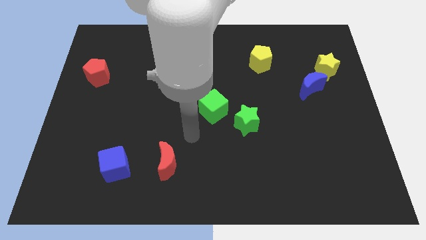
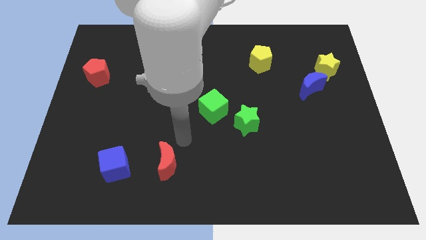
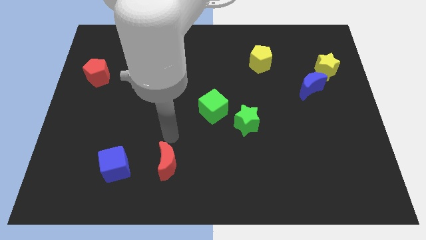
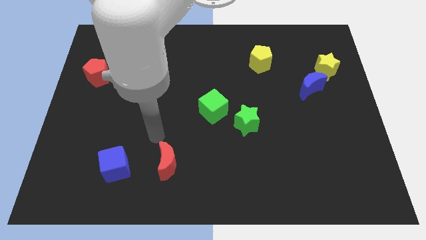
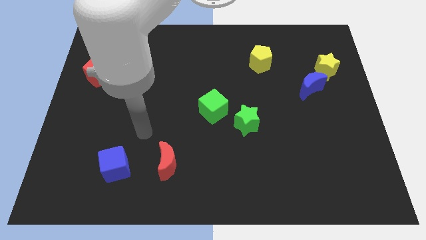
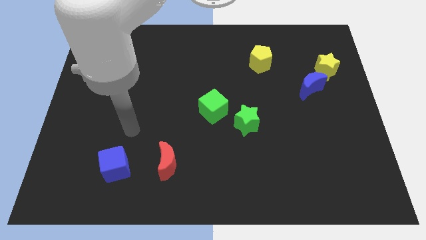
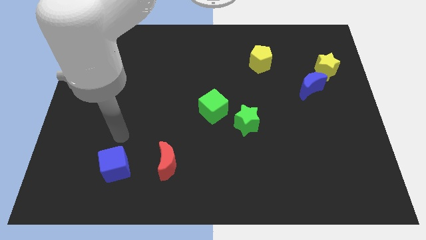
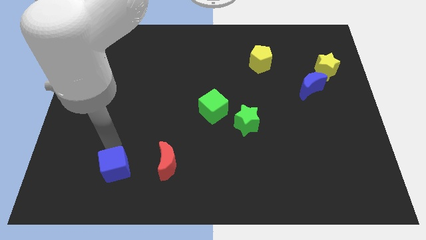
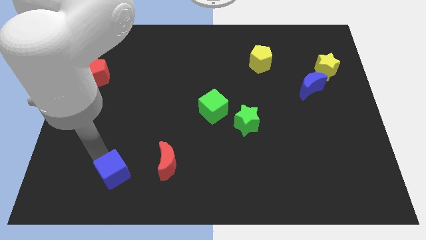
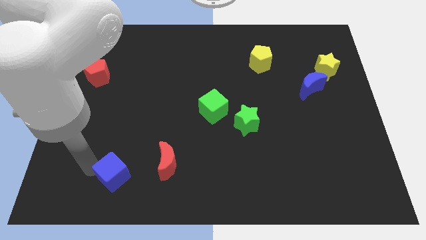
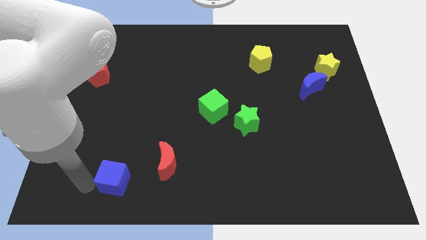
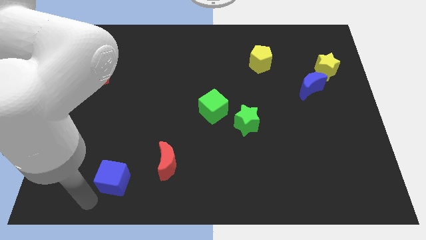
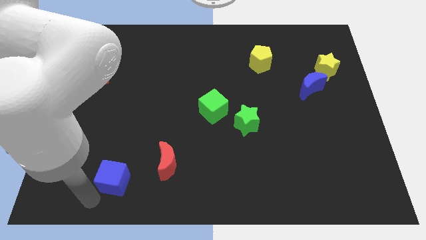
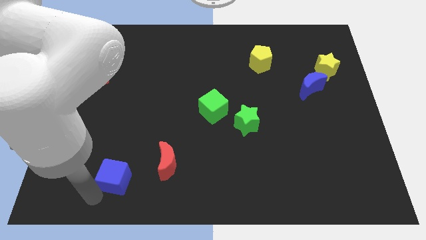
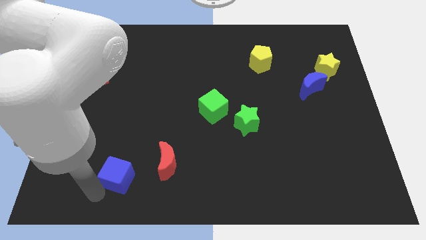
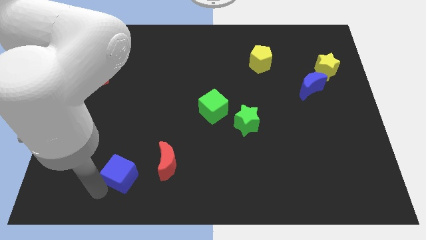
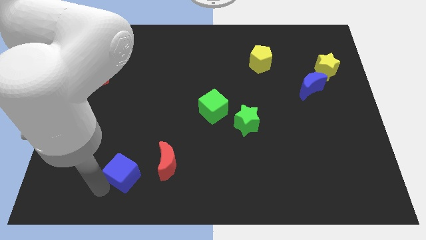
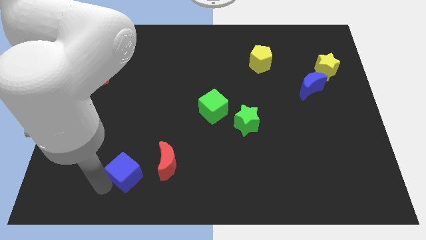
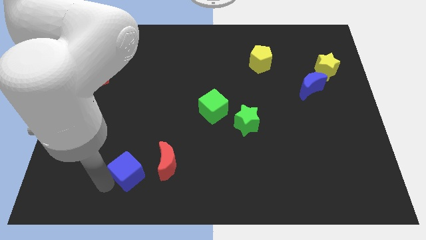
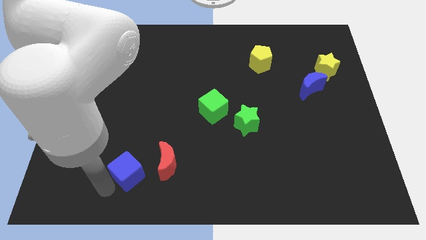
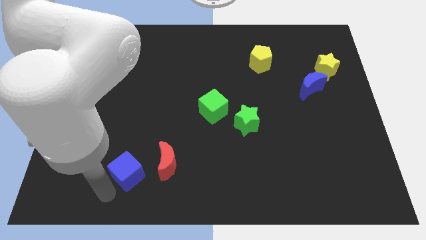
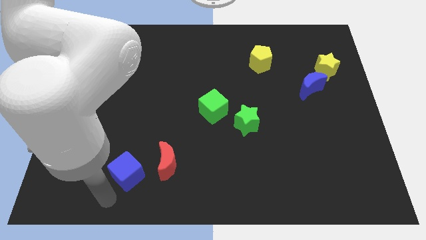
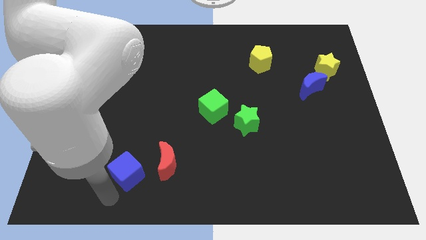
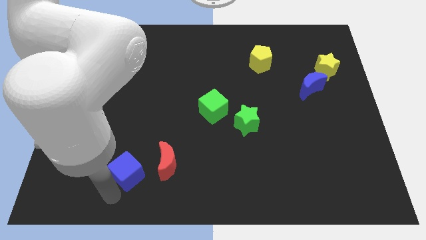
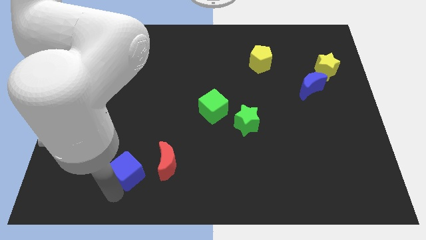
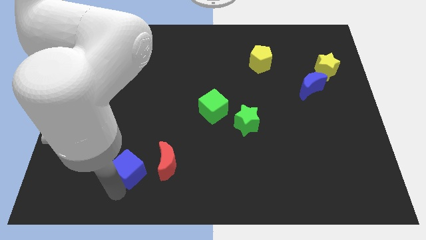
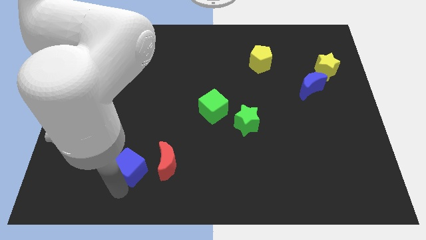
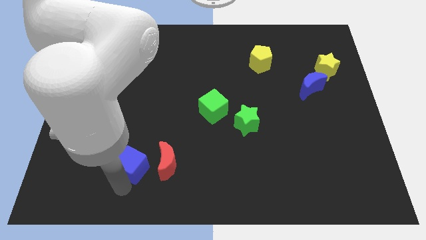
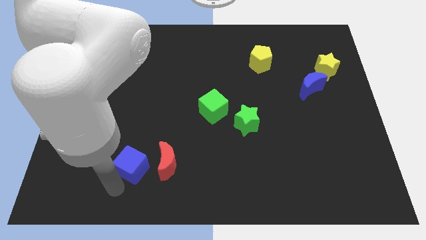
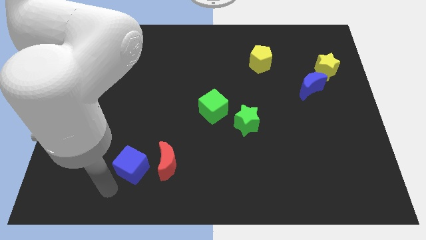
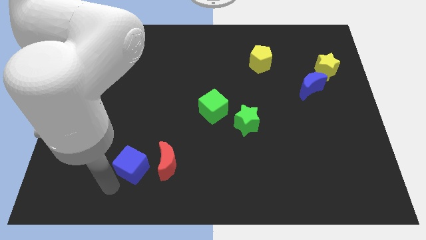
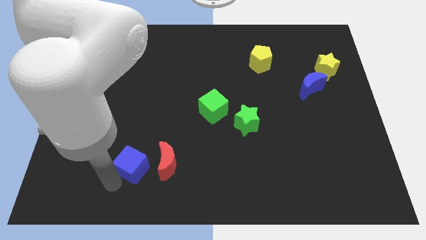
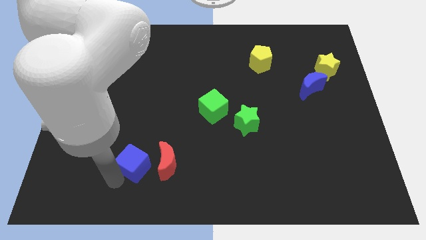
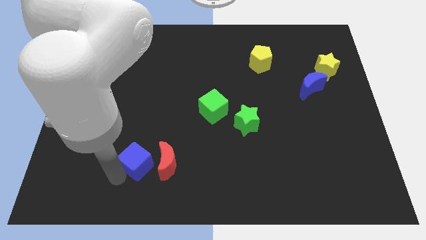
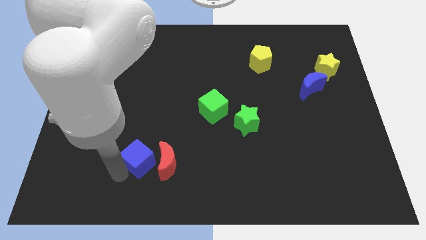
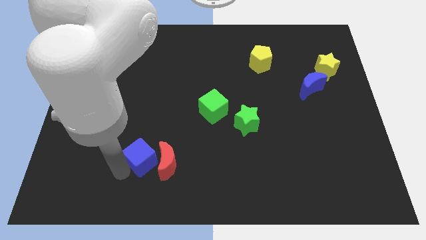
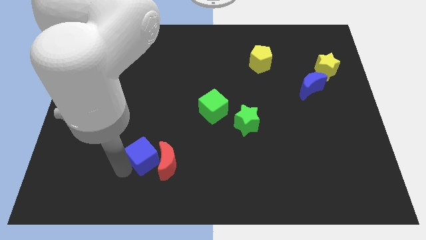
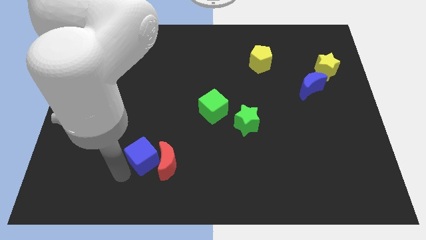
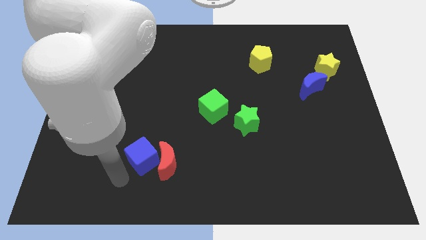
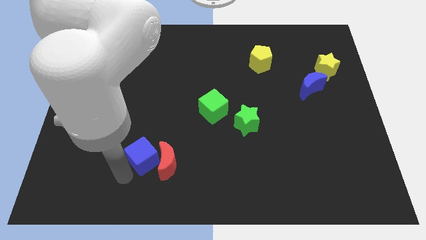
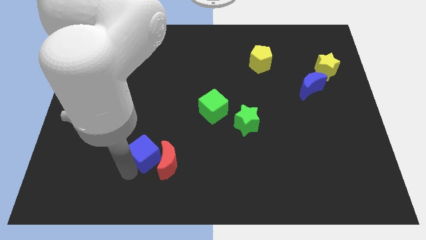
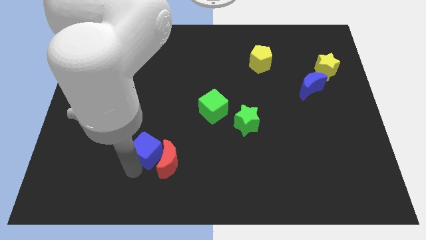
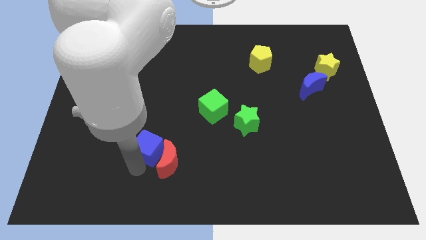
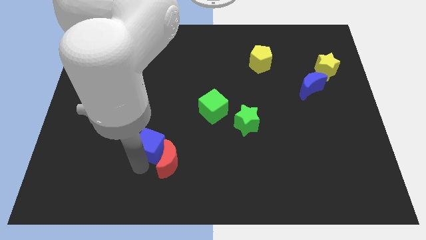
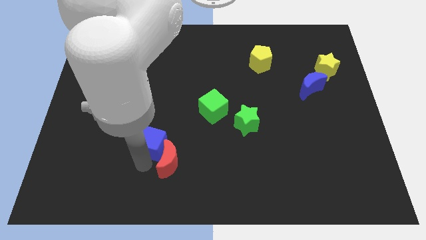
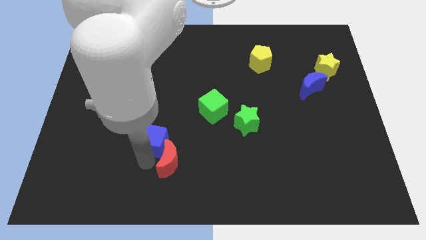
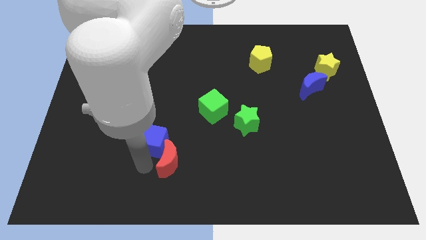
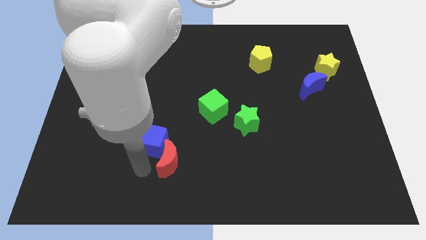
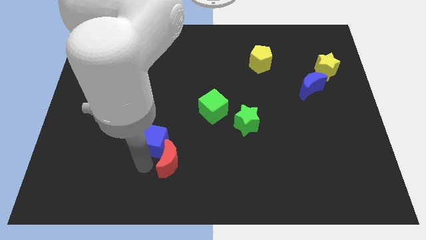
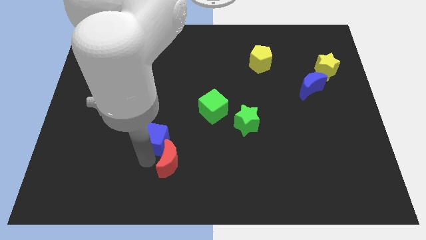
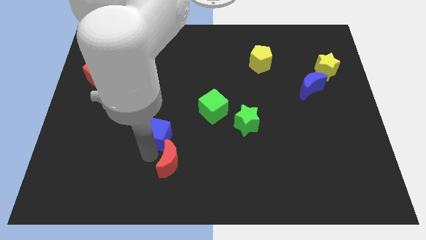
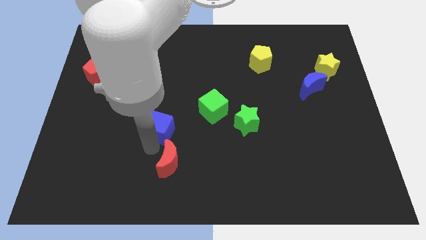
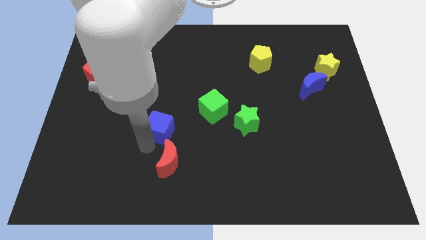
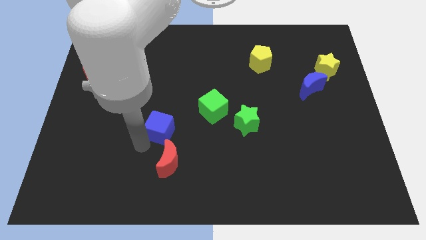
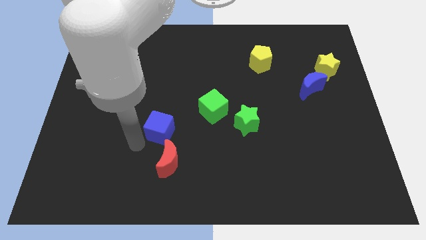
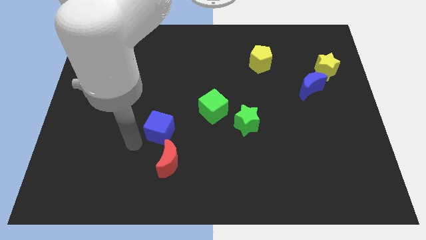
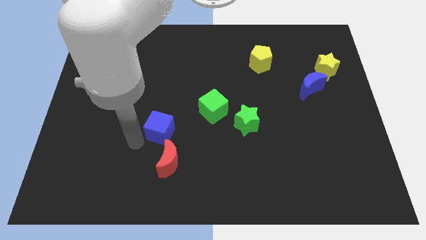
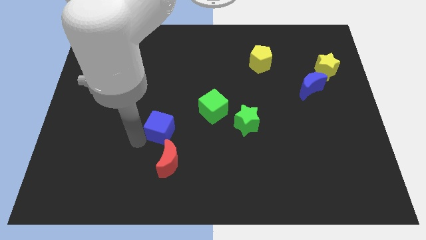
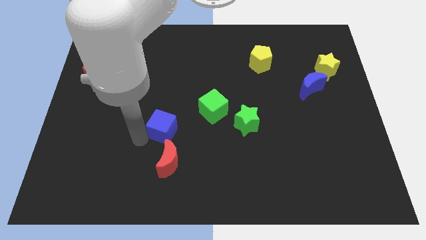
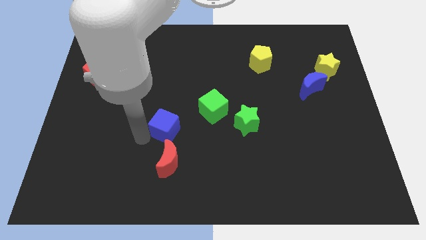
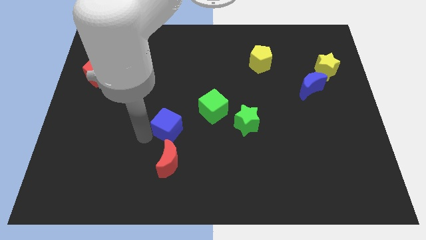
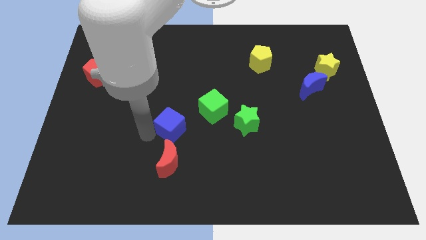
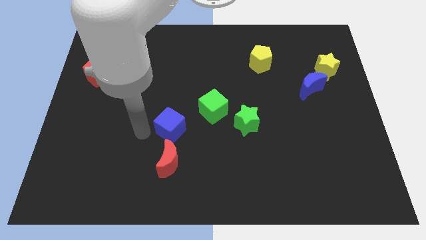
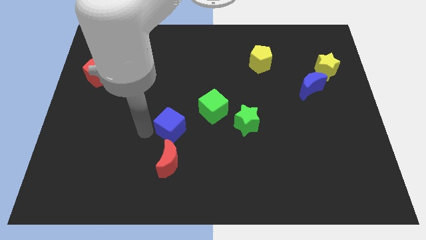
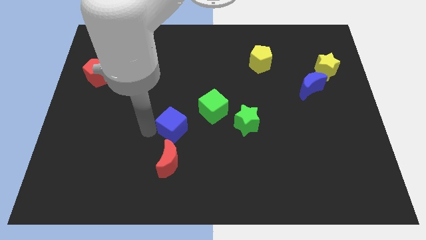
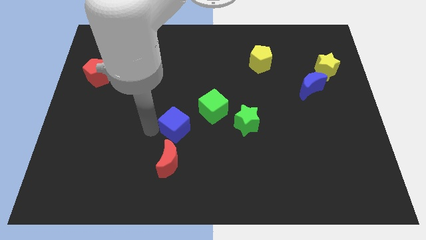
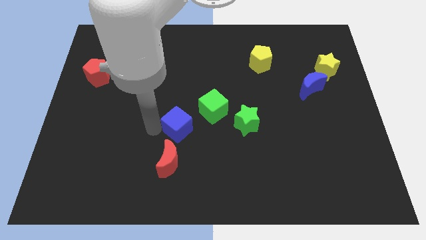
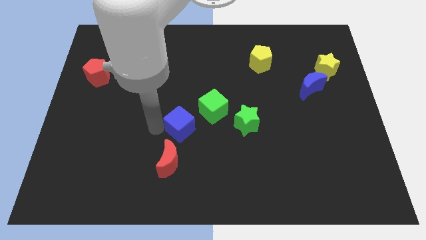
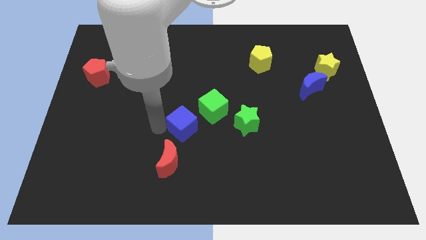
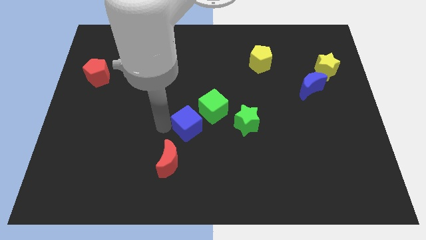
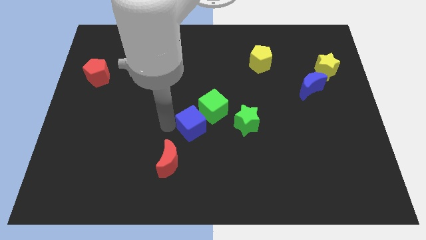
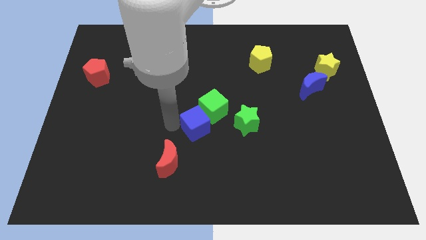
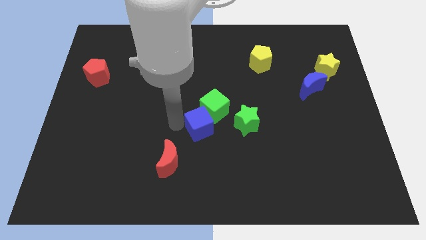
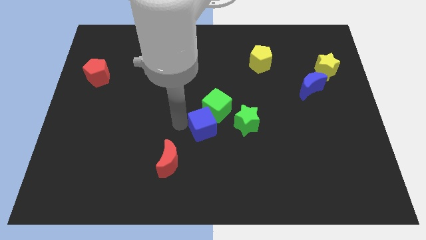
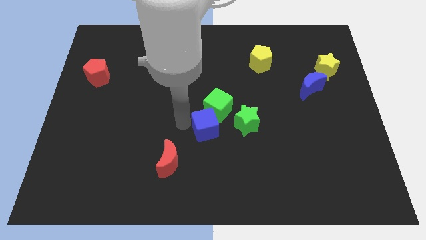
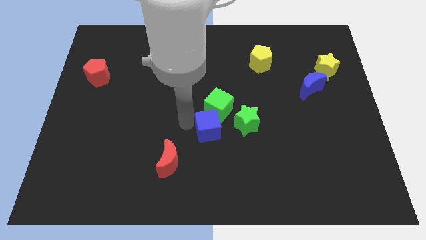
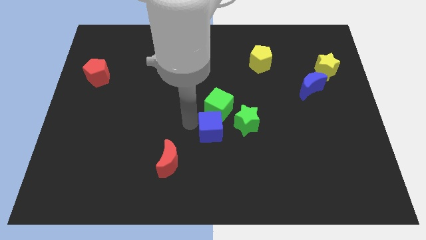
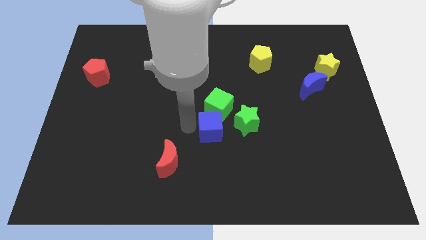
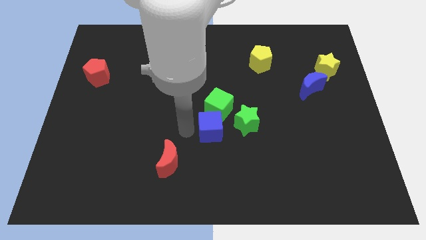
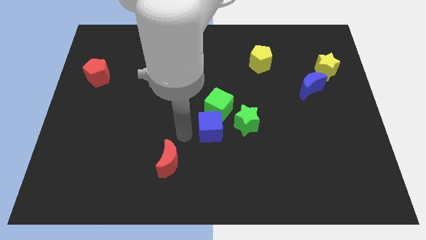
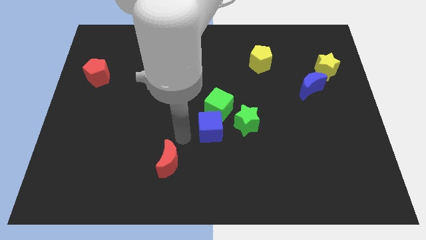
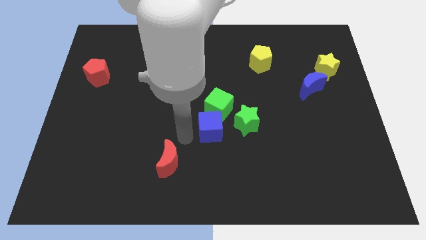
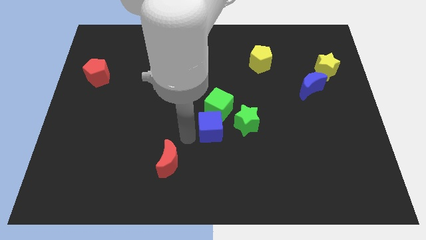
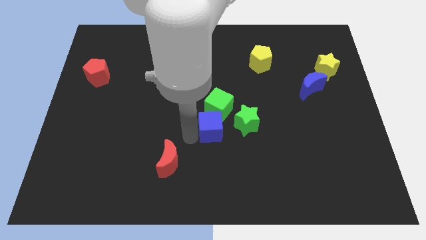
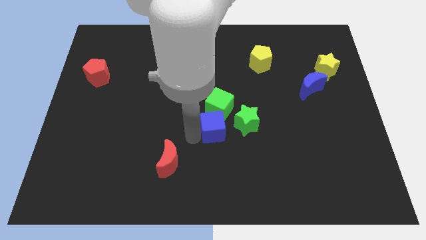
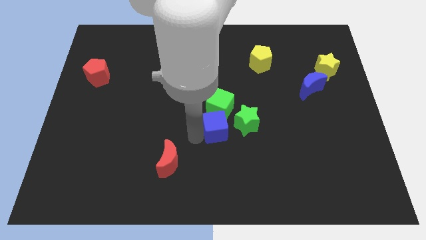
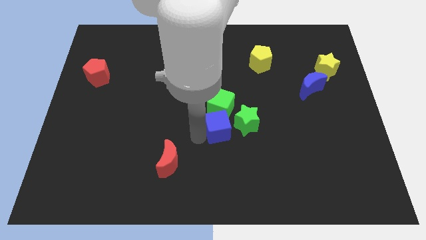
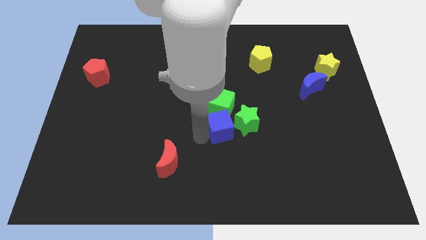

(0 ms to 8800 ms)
put the blue cube close to the green star
